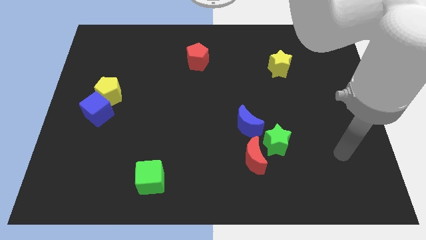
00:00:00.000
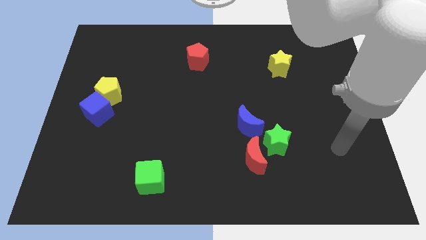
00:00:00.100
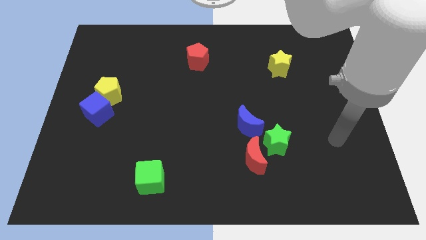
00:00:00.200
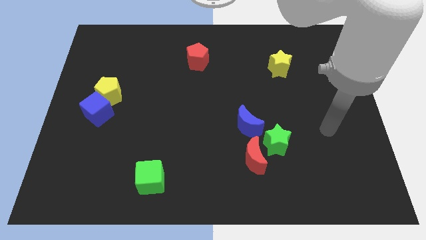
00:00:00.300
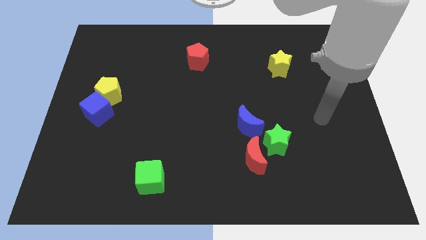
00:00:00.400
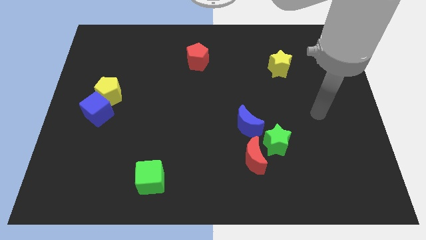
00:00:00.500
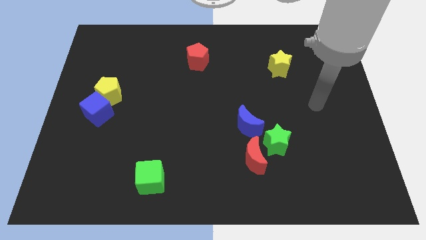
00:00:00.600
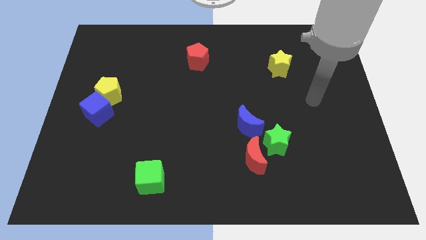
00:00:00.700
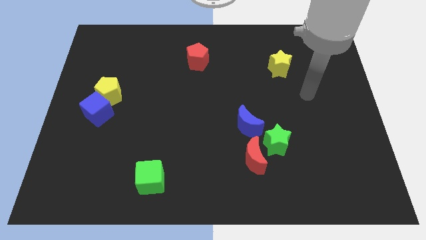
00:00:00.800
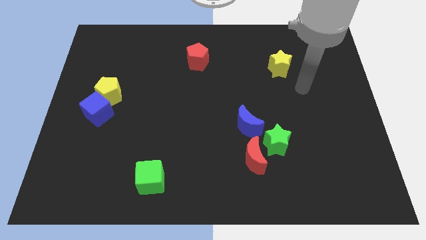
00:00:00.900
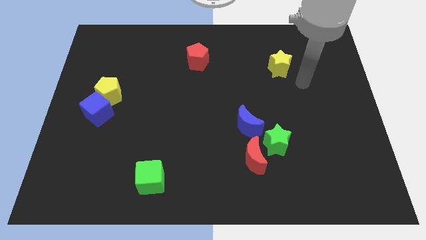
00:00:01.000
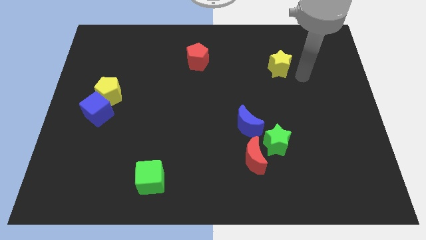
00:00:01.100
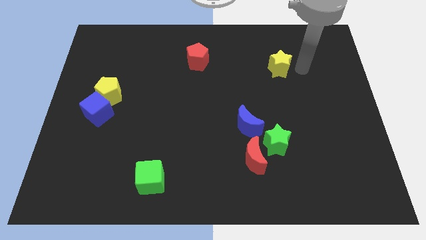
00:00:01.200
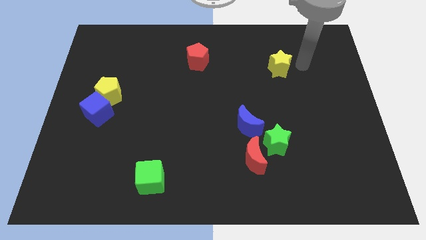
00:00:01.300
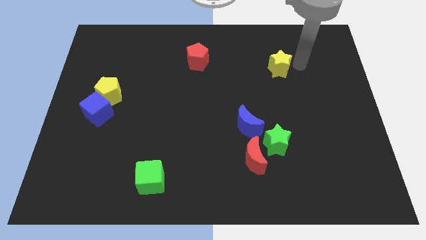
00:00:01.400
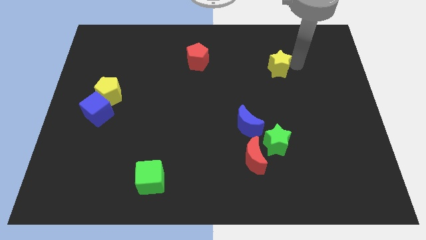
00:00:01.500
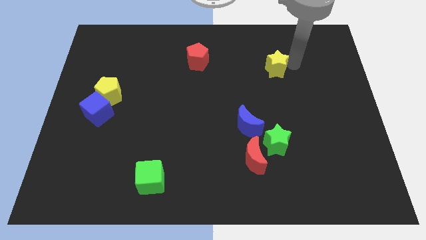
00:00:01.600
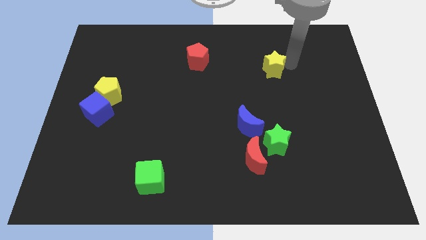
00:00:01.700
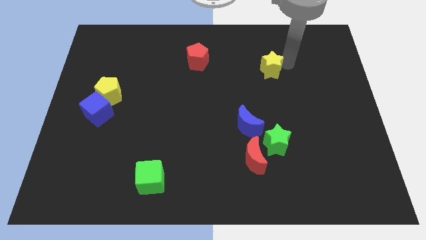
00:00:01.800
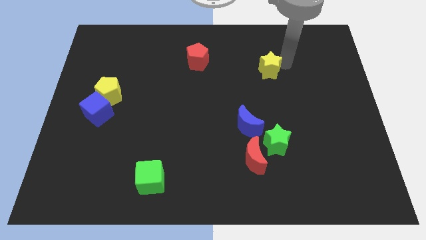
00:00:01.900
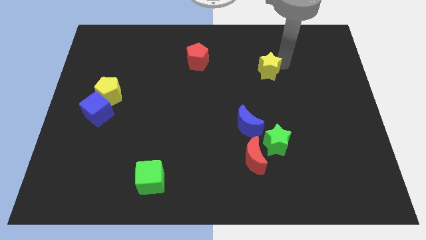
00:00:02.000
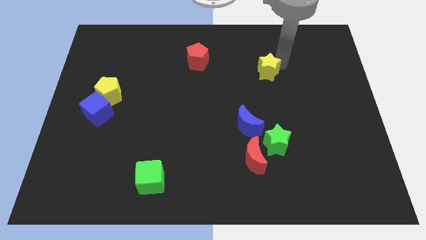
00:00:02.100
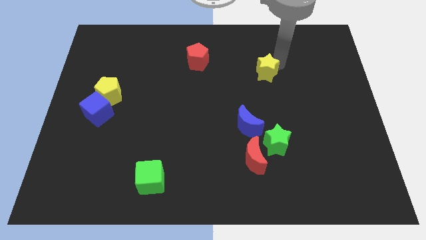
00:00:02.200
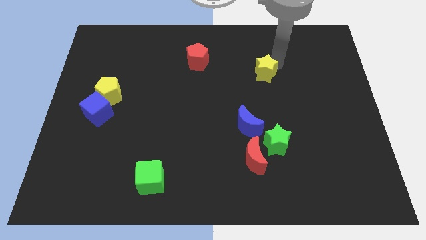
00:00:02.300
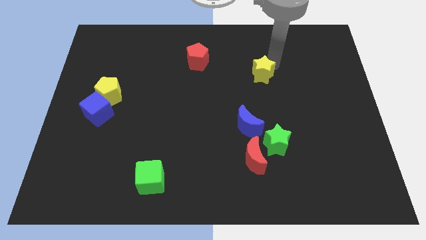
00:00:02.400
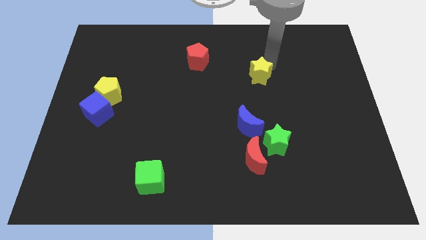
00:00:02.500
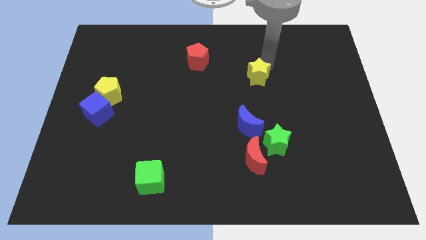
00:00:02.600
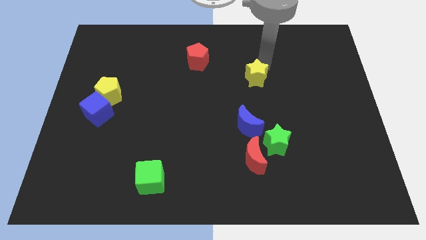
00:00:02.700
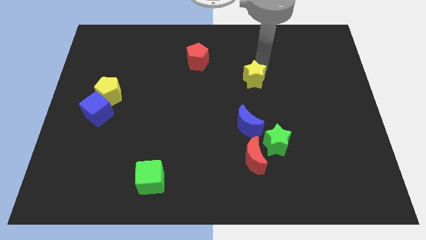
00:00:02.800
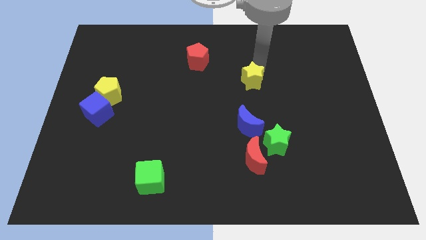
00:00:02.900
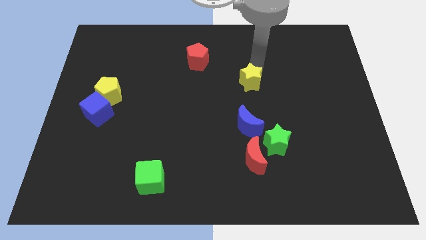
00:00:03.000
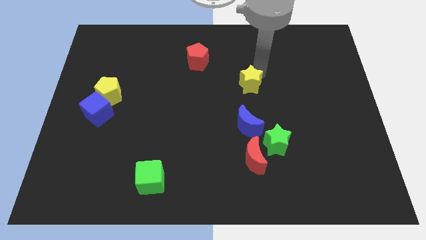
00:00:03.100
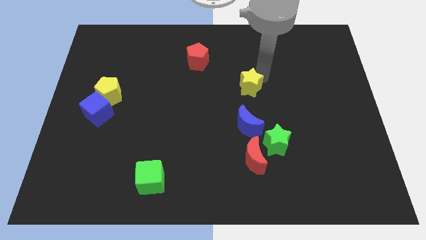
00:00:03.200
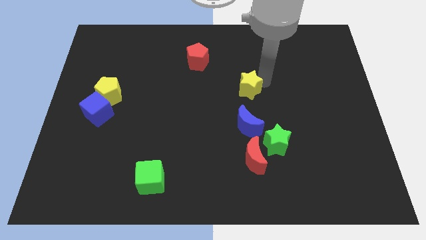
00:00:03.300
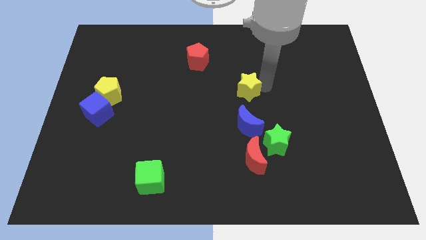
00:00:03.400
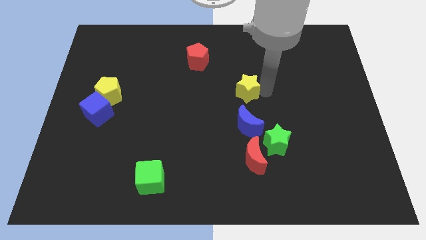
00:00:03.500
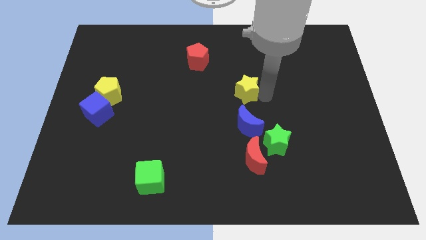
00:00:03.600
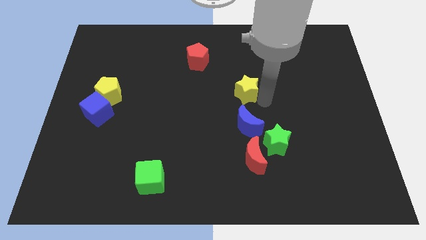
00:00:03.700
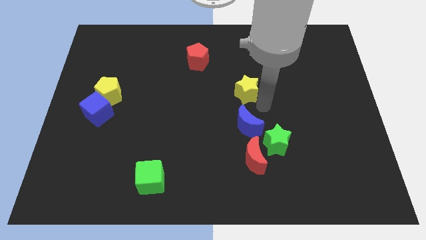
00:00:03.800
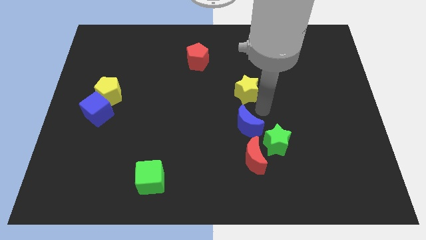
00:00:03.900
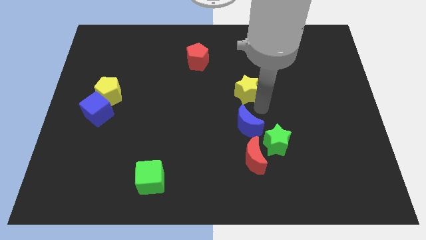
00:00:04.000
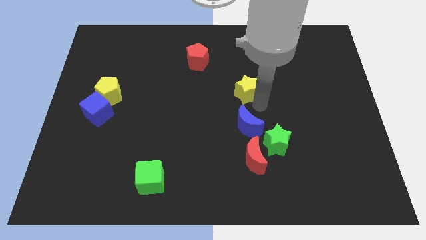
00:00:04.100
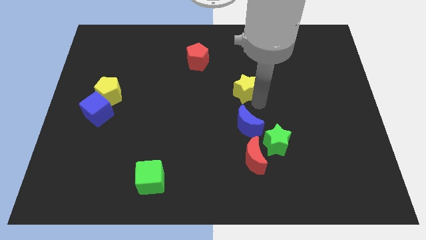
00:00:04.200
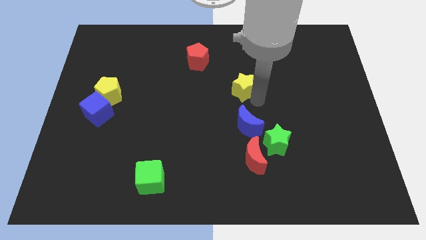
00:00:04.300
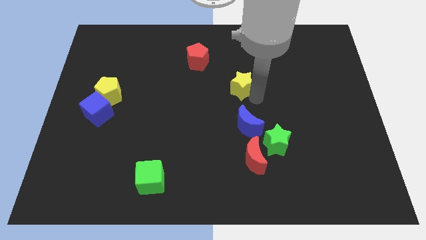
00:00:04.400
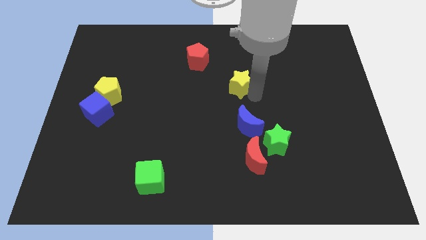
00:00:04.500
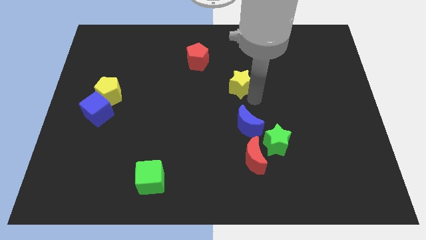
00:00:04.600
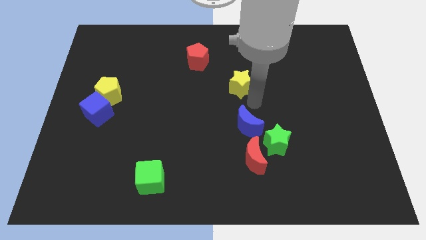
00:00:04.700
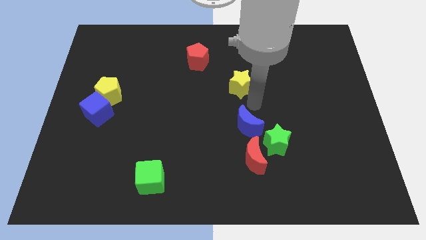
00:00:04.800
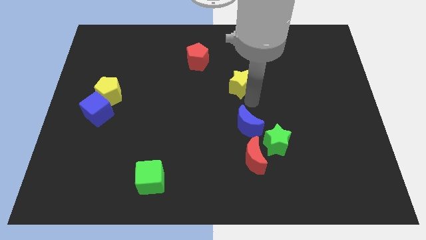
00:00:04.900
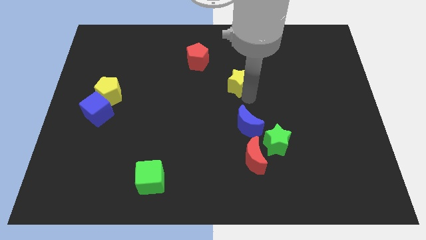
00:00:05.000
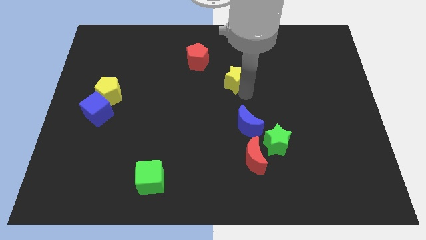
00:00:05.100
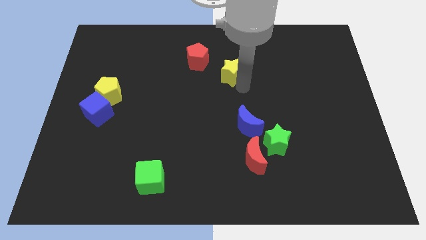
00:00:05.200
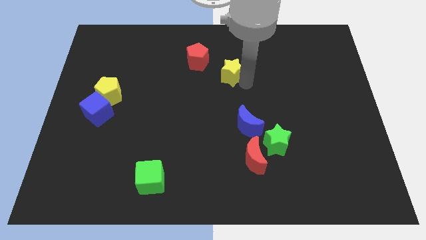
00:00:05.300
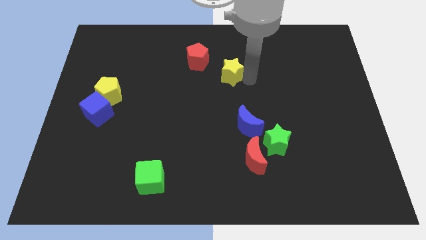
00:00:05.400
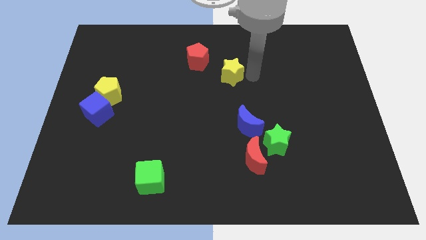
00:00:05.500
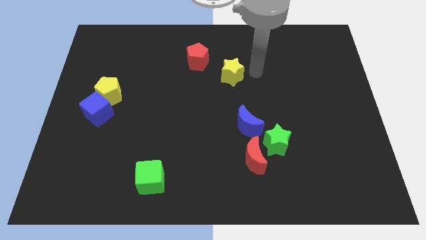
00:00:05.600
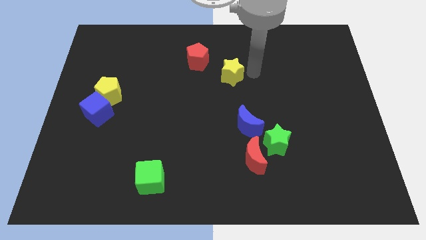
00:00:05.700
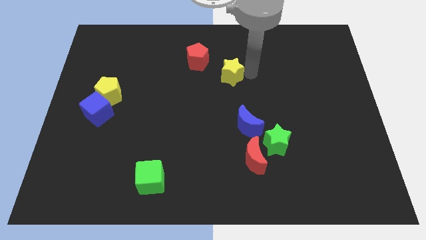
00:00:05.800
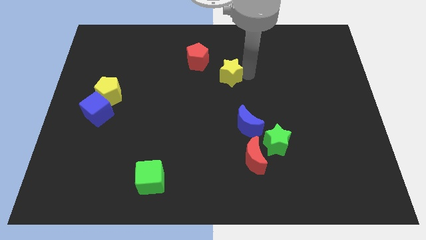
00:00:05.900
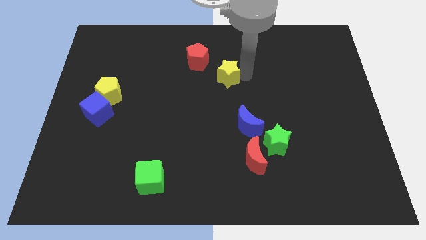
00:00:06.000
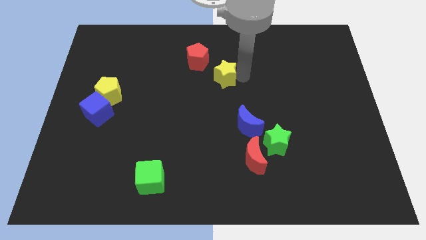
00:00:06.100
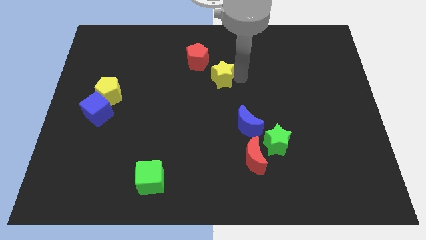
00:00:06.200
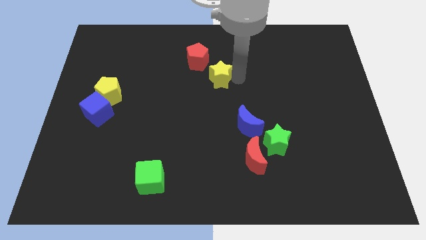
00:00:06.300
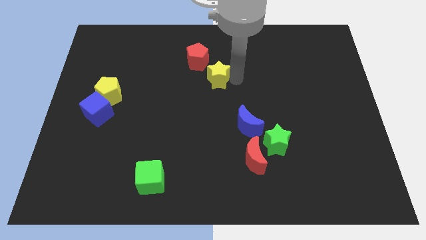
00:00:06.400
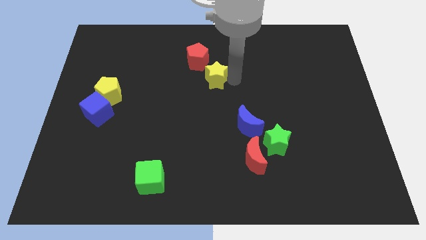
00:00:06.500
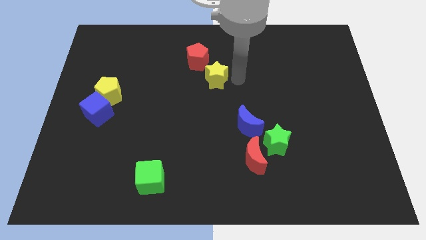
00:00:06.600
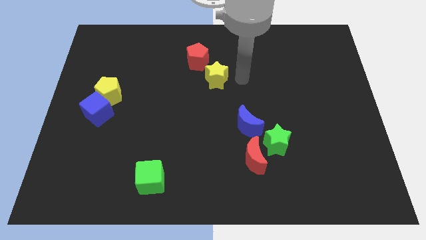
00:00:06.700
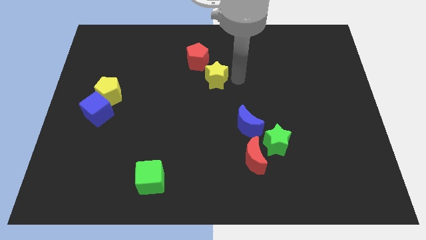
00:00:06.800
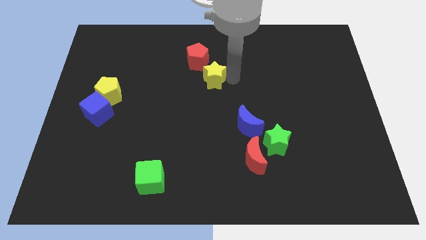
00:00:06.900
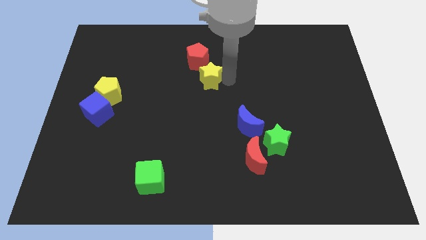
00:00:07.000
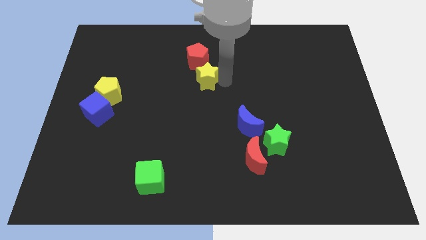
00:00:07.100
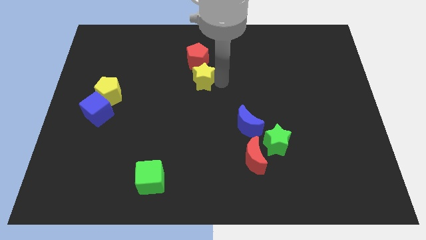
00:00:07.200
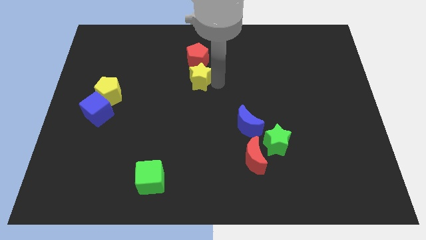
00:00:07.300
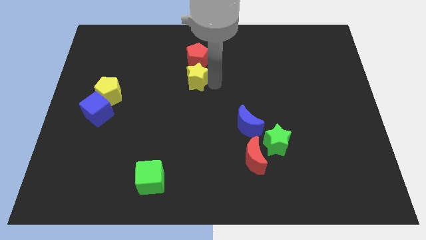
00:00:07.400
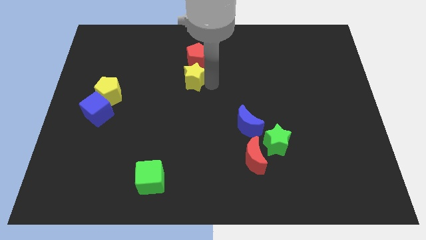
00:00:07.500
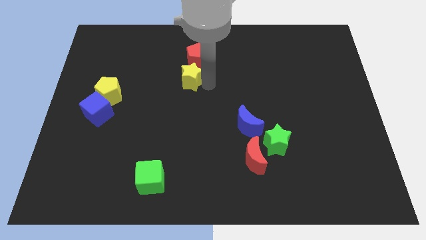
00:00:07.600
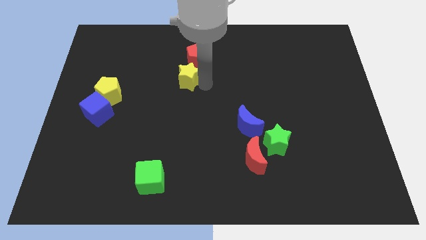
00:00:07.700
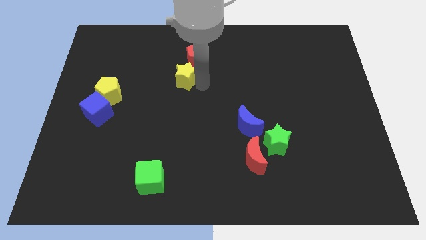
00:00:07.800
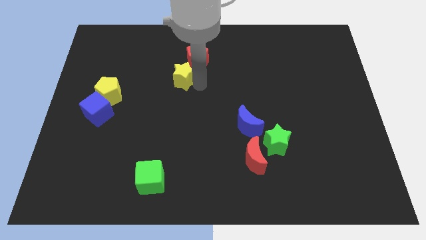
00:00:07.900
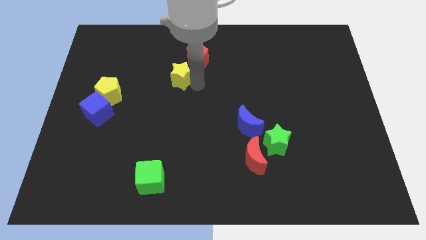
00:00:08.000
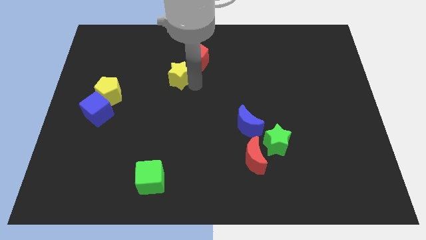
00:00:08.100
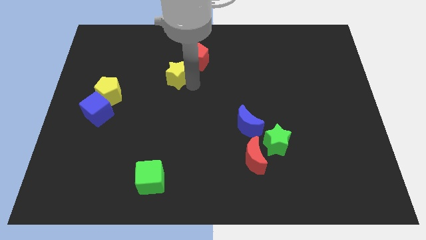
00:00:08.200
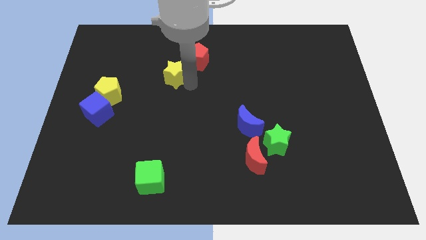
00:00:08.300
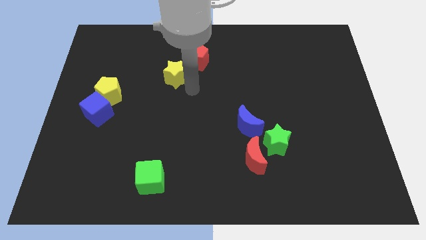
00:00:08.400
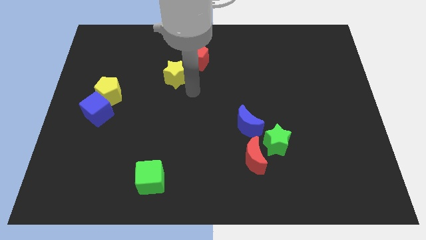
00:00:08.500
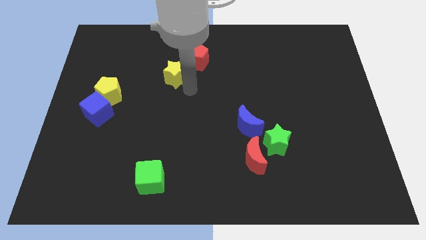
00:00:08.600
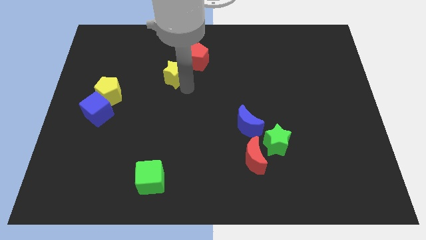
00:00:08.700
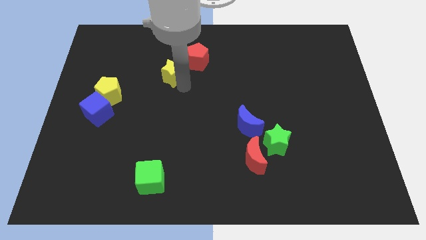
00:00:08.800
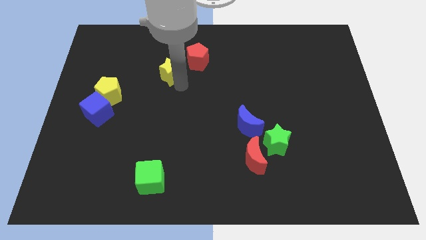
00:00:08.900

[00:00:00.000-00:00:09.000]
put the yellow star just left of the red pentagon
